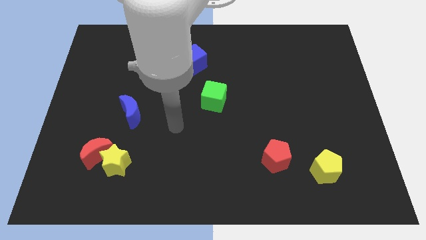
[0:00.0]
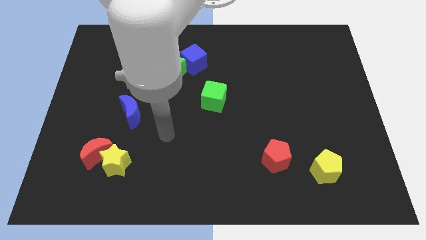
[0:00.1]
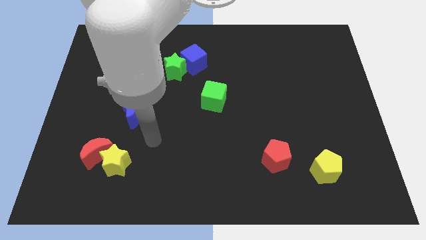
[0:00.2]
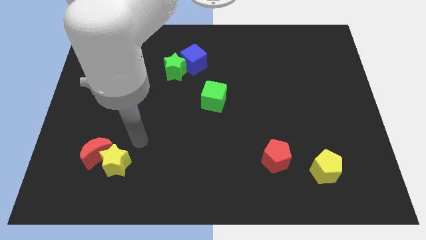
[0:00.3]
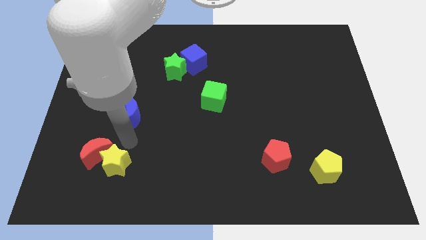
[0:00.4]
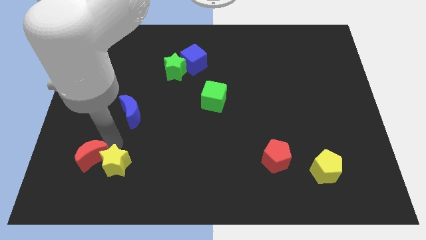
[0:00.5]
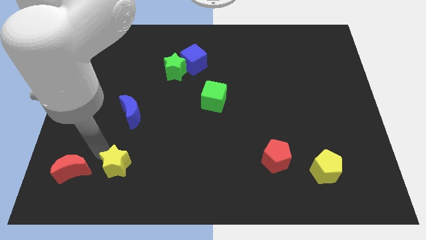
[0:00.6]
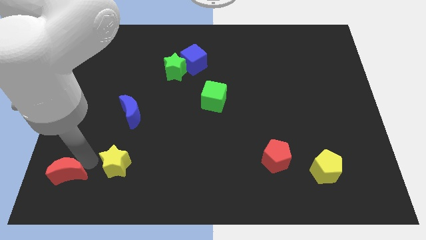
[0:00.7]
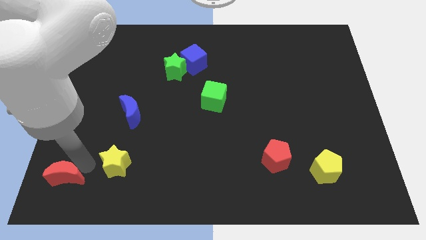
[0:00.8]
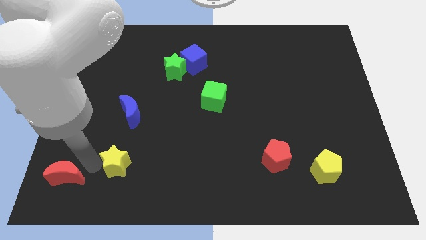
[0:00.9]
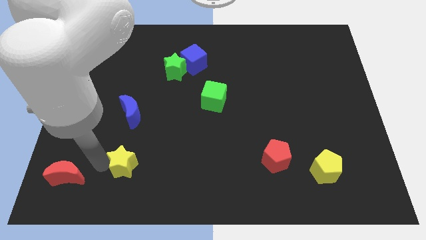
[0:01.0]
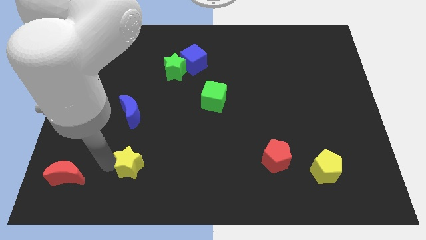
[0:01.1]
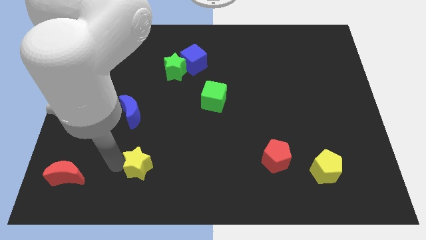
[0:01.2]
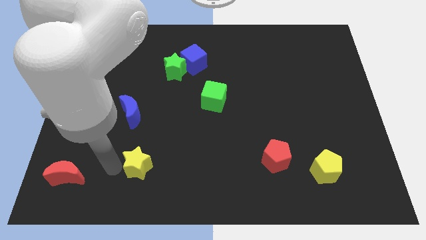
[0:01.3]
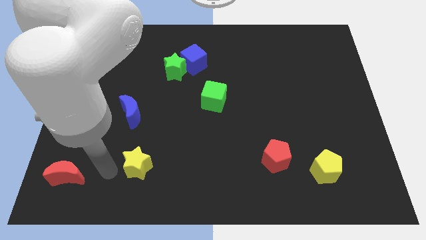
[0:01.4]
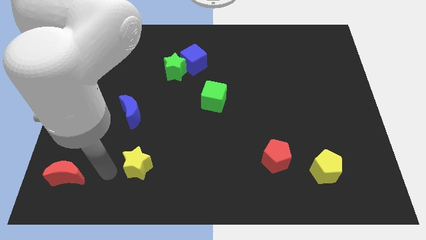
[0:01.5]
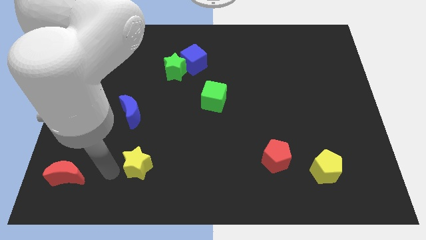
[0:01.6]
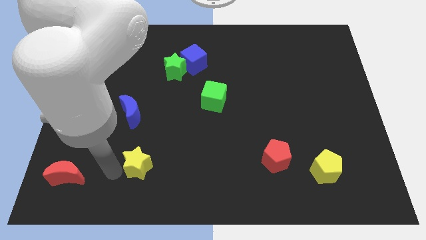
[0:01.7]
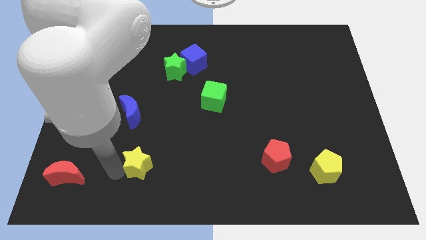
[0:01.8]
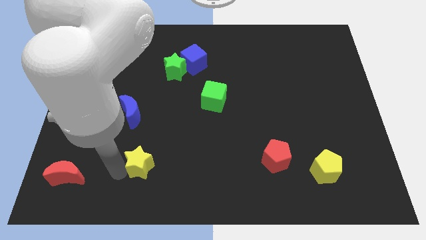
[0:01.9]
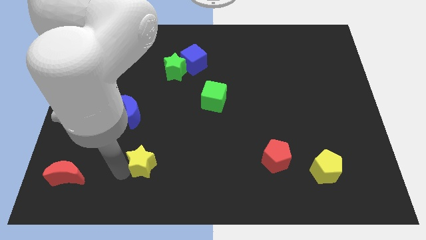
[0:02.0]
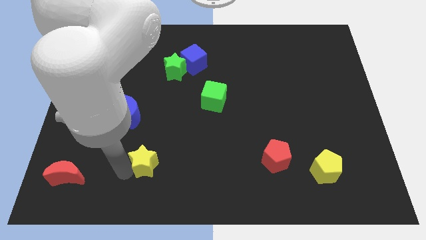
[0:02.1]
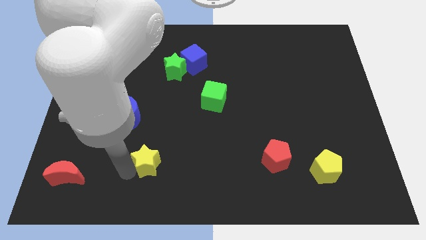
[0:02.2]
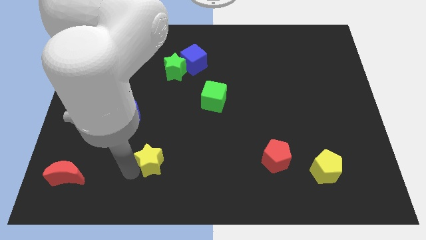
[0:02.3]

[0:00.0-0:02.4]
move the yellow star to the right a little bit

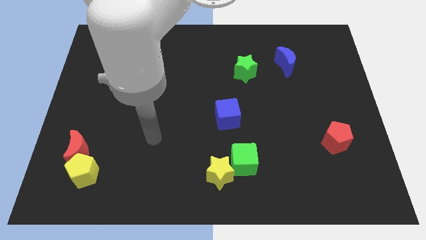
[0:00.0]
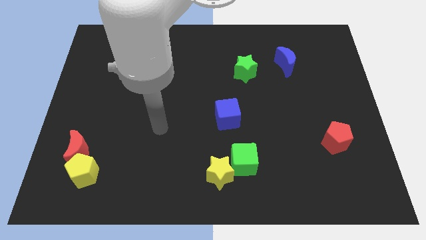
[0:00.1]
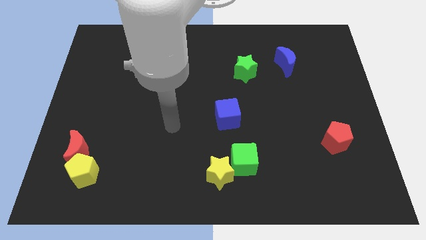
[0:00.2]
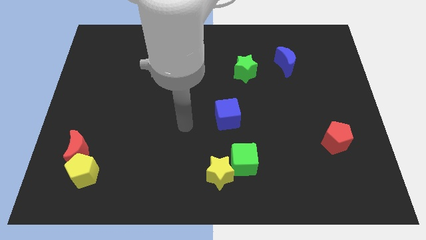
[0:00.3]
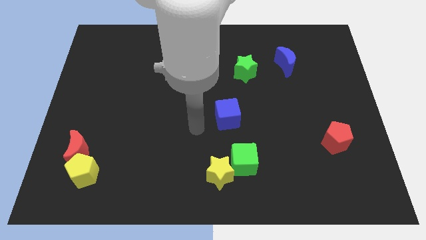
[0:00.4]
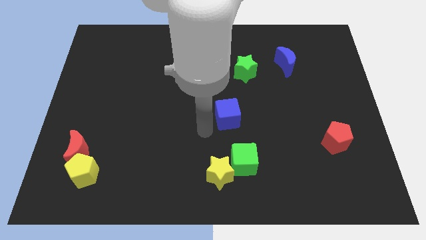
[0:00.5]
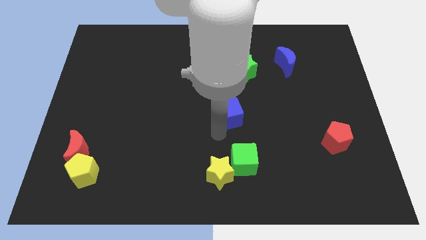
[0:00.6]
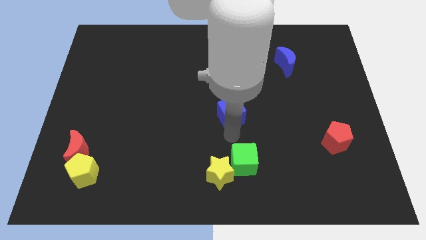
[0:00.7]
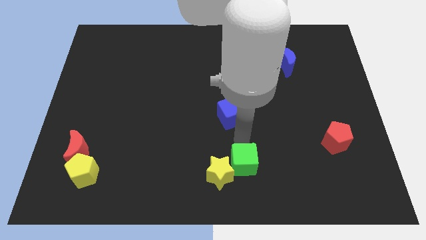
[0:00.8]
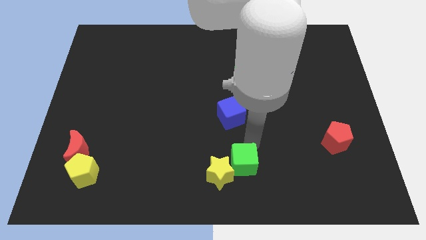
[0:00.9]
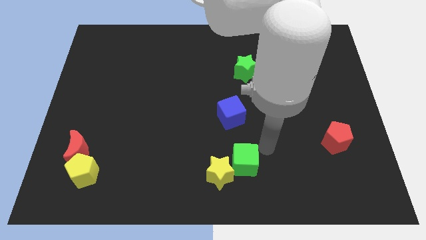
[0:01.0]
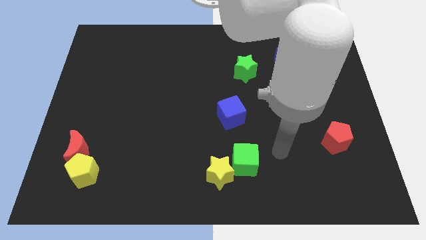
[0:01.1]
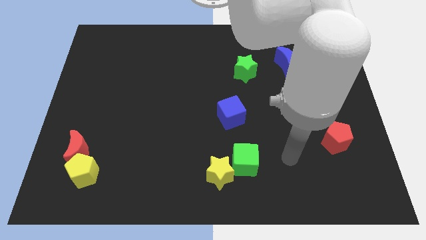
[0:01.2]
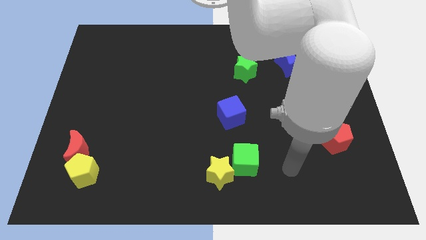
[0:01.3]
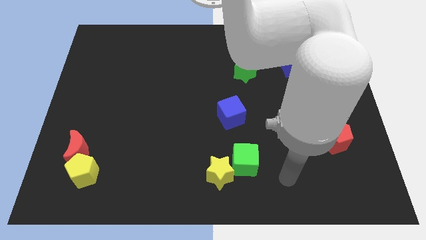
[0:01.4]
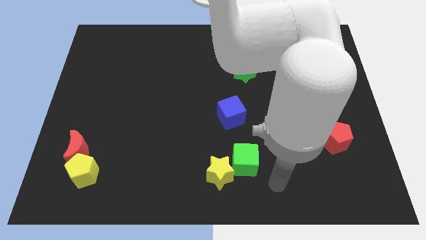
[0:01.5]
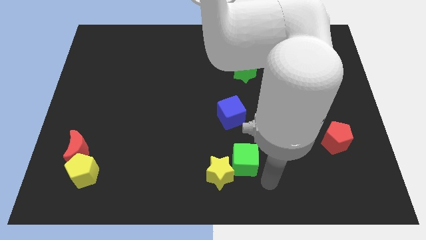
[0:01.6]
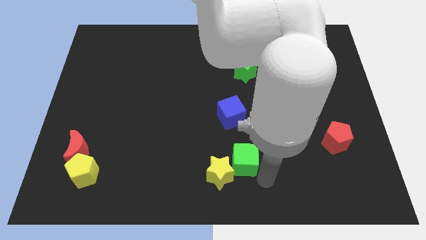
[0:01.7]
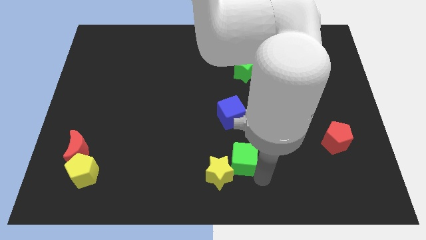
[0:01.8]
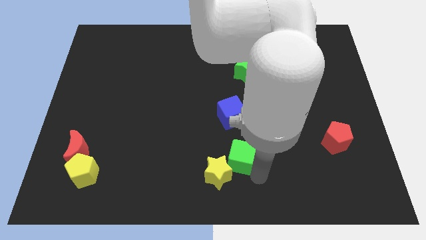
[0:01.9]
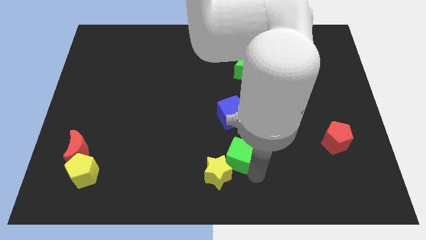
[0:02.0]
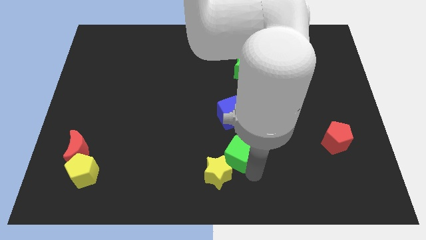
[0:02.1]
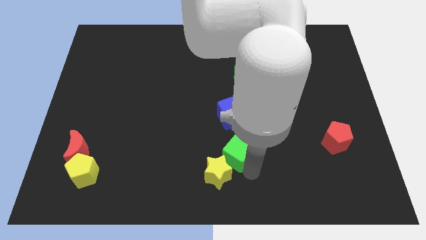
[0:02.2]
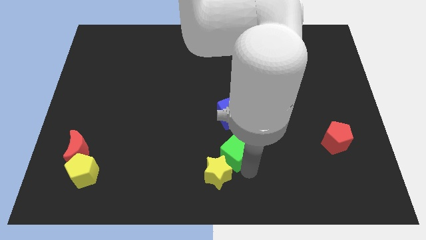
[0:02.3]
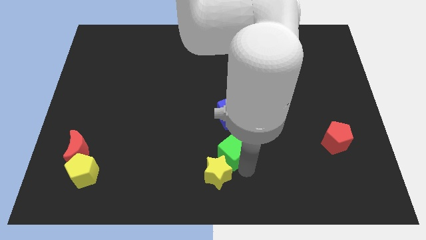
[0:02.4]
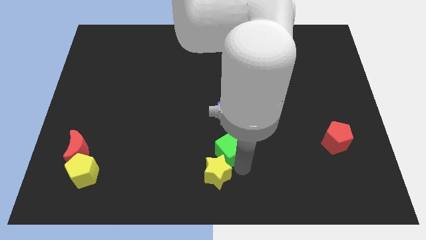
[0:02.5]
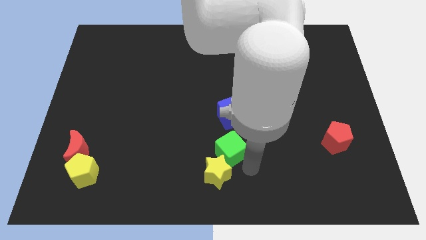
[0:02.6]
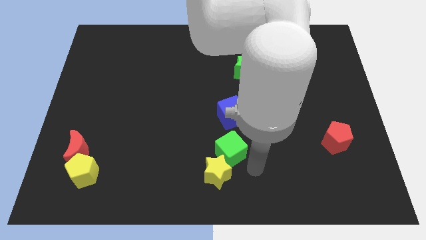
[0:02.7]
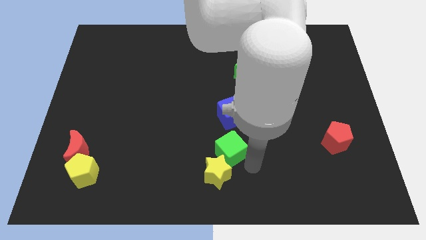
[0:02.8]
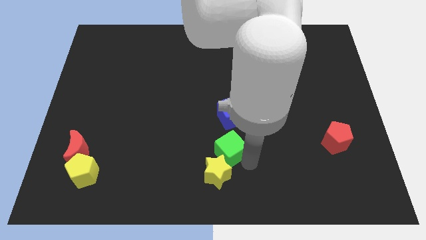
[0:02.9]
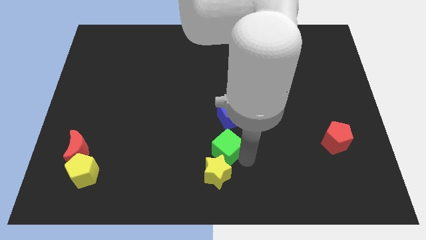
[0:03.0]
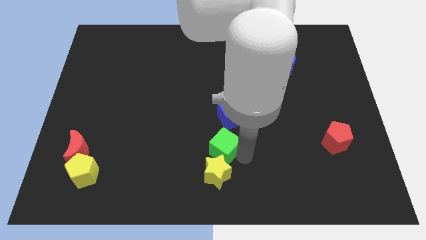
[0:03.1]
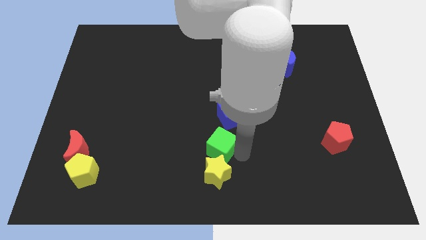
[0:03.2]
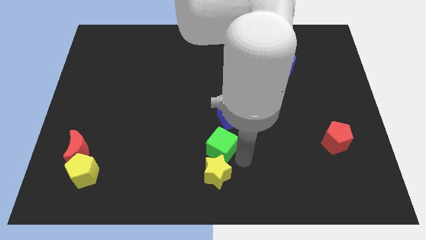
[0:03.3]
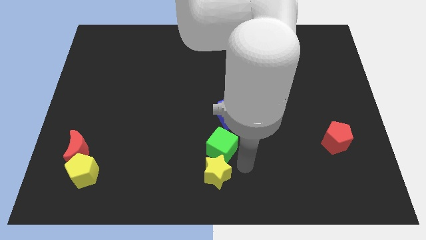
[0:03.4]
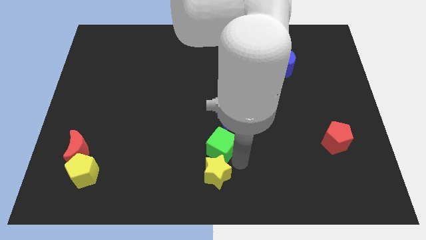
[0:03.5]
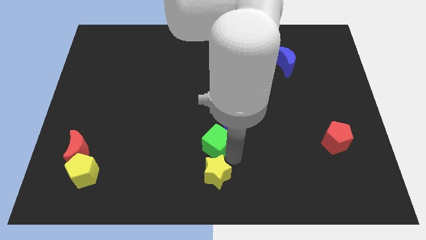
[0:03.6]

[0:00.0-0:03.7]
slightly slide the green cube up and then to the left

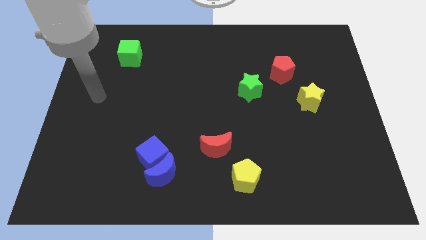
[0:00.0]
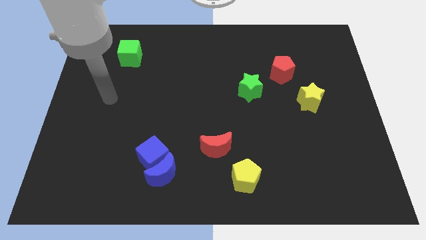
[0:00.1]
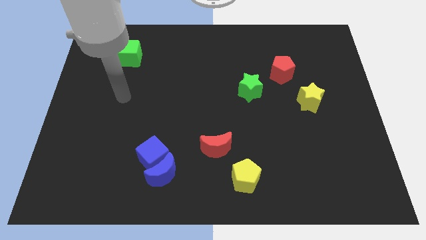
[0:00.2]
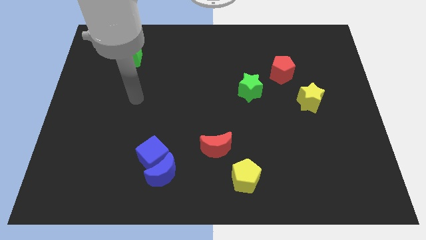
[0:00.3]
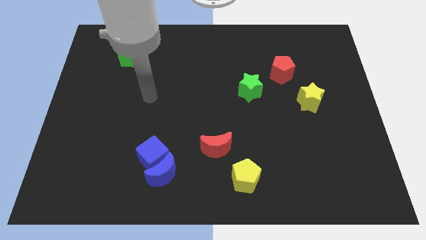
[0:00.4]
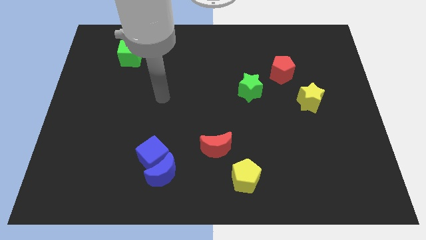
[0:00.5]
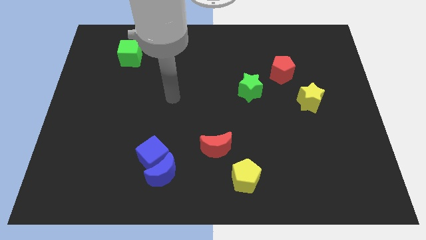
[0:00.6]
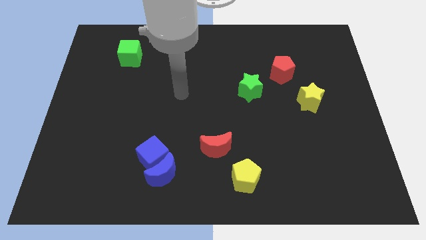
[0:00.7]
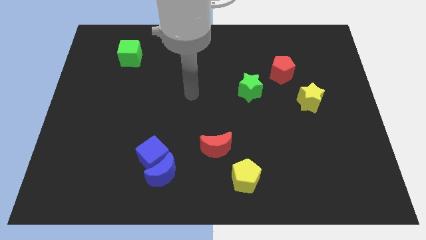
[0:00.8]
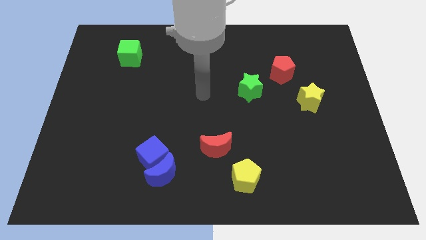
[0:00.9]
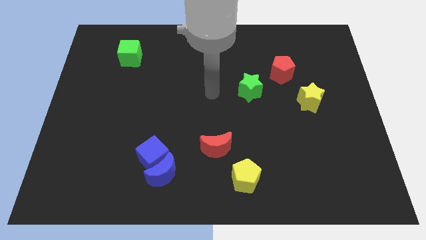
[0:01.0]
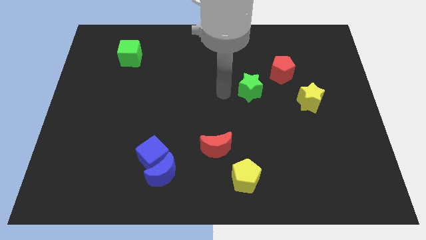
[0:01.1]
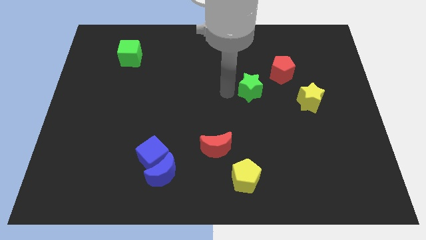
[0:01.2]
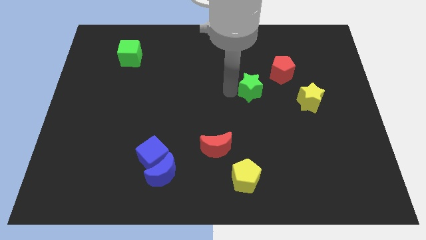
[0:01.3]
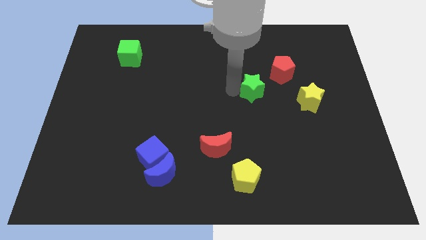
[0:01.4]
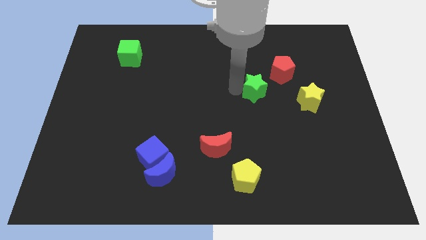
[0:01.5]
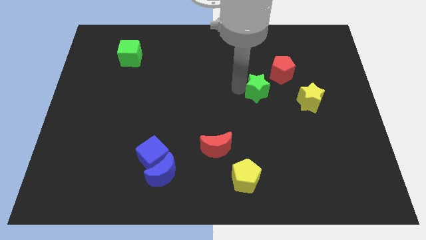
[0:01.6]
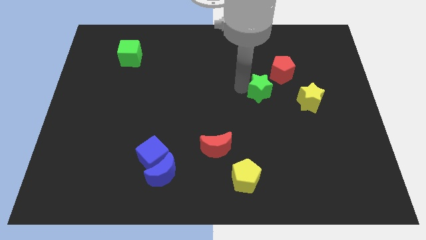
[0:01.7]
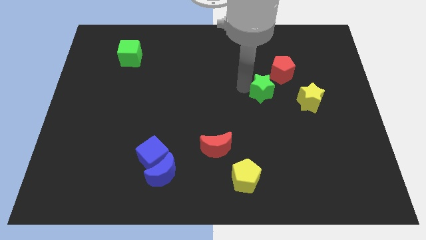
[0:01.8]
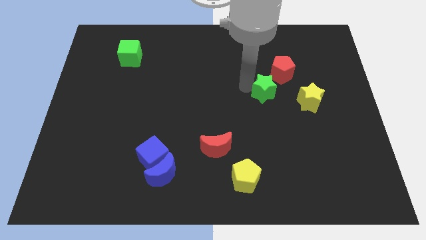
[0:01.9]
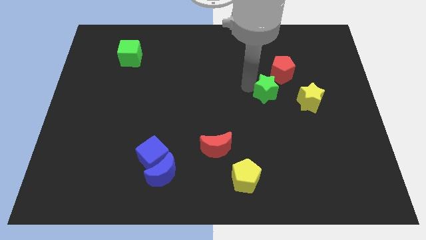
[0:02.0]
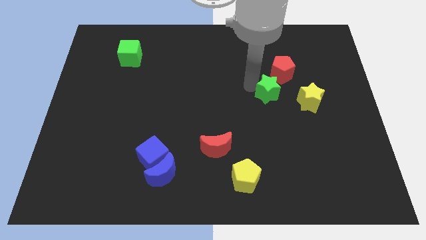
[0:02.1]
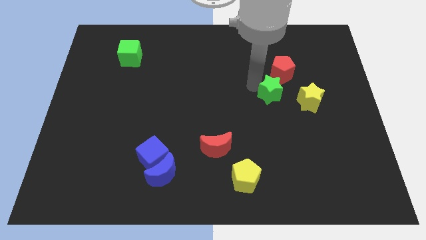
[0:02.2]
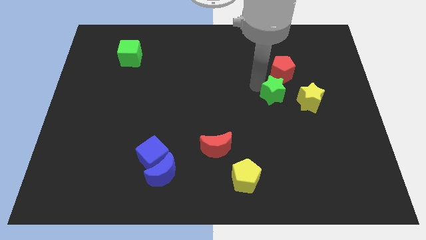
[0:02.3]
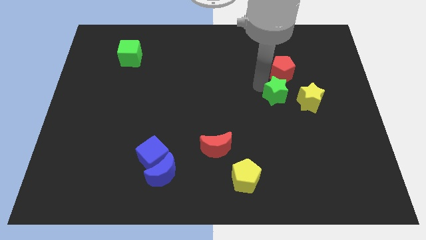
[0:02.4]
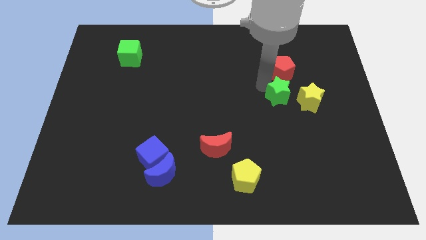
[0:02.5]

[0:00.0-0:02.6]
slide the green star right somewhat
